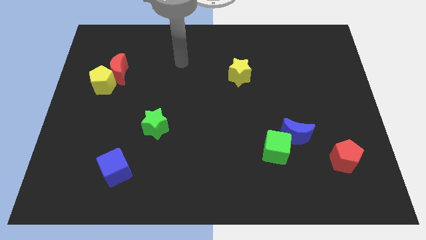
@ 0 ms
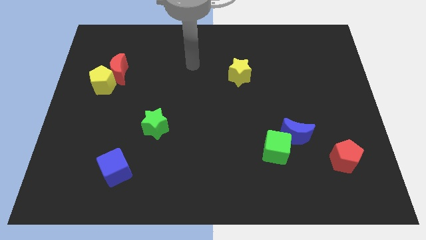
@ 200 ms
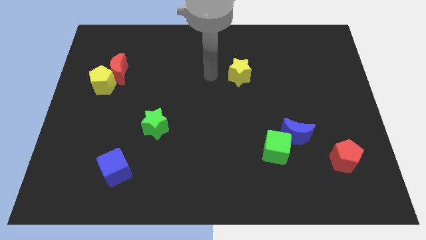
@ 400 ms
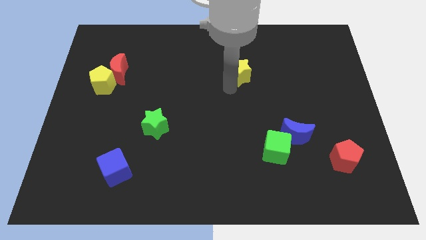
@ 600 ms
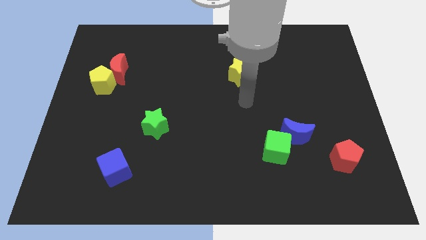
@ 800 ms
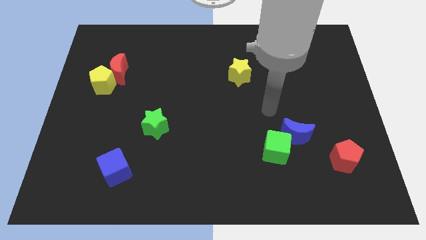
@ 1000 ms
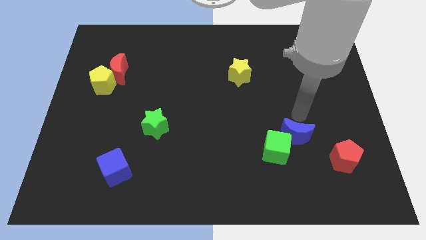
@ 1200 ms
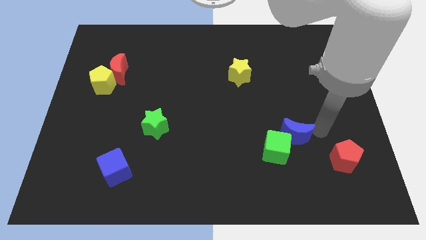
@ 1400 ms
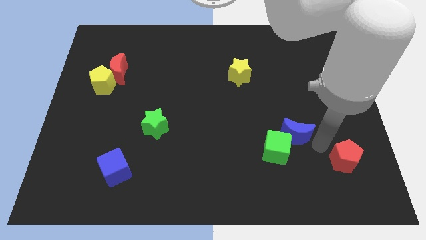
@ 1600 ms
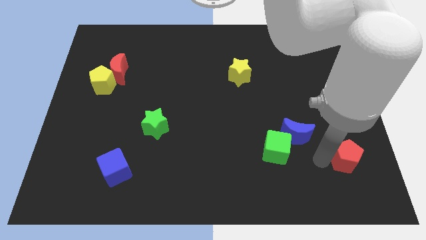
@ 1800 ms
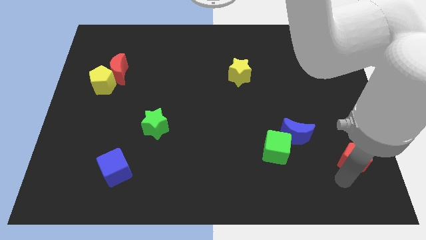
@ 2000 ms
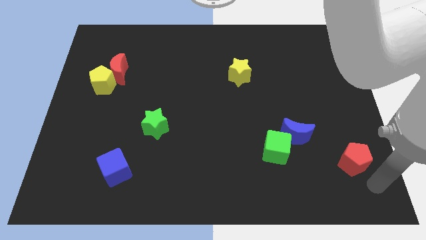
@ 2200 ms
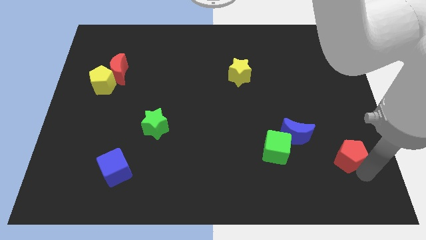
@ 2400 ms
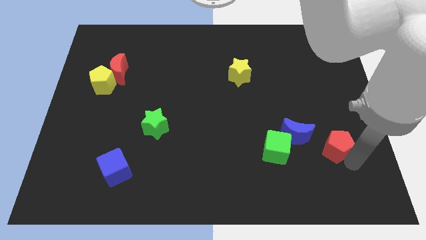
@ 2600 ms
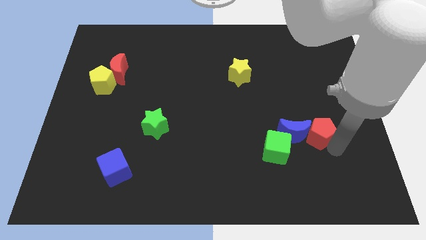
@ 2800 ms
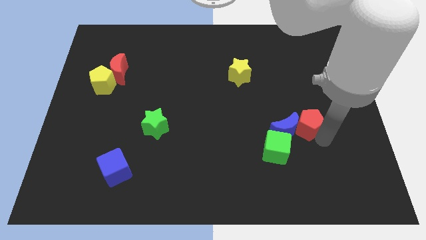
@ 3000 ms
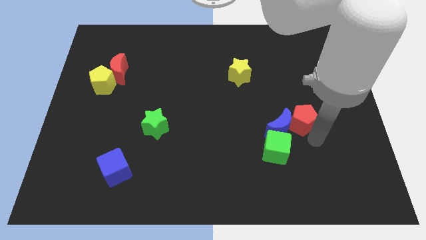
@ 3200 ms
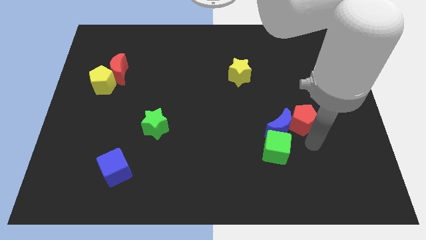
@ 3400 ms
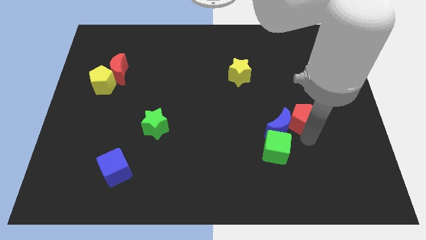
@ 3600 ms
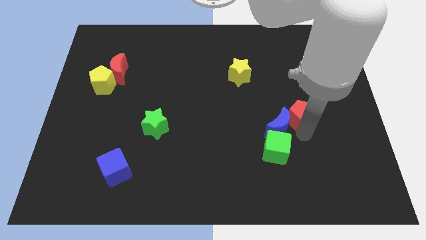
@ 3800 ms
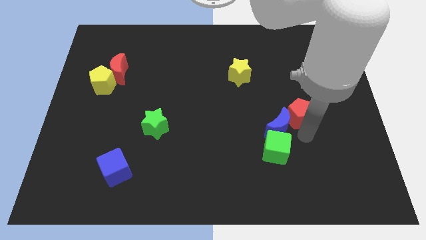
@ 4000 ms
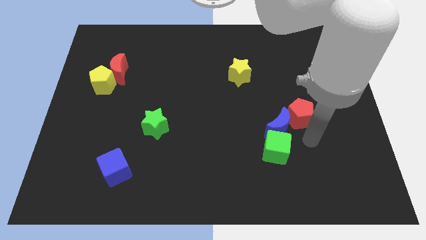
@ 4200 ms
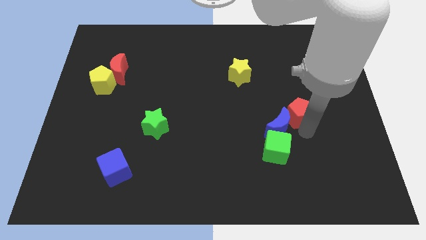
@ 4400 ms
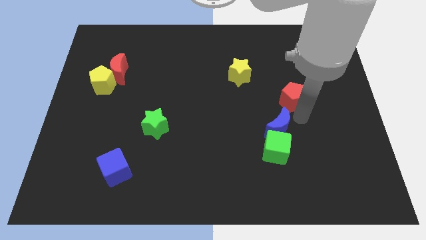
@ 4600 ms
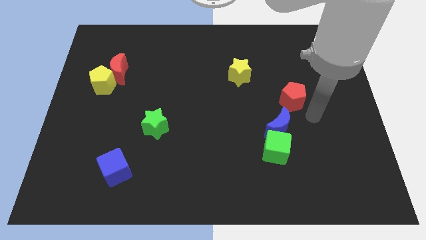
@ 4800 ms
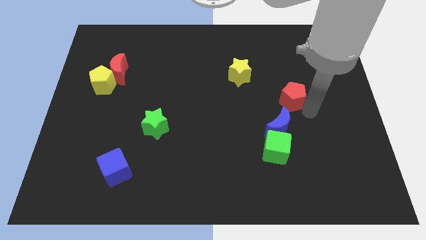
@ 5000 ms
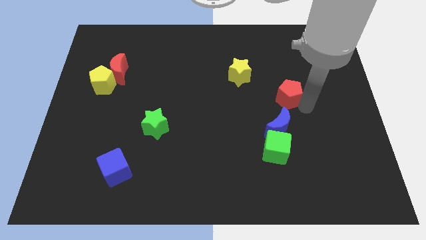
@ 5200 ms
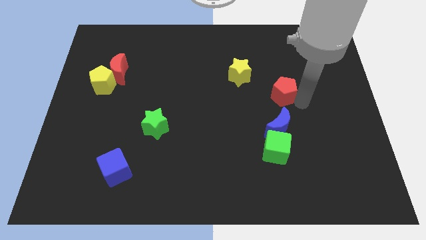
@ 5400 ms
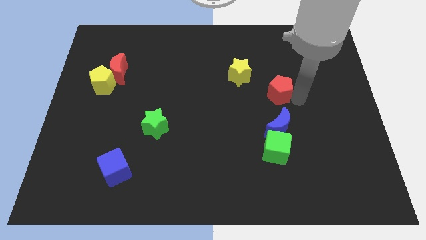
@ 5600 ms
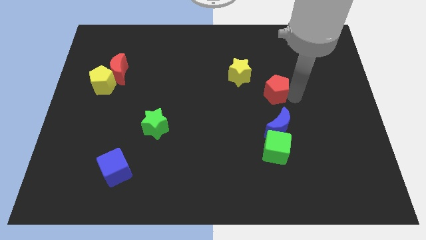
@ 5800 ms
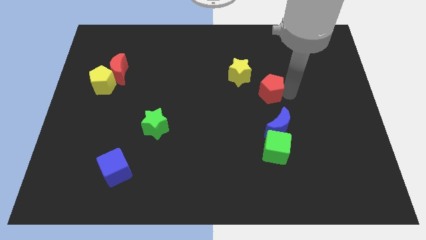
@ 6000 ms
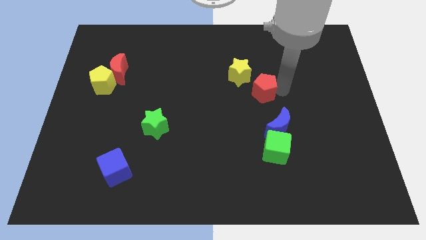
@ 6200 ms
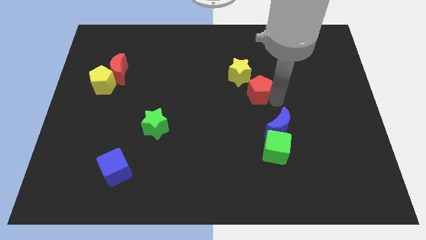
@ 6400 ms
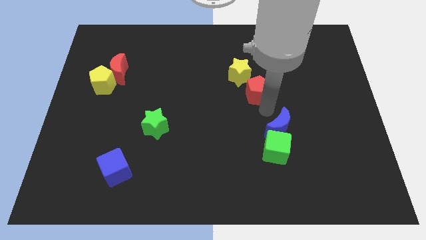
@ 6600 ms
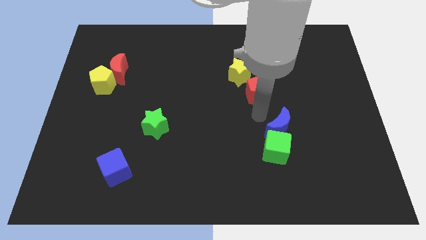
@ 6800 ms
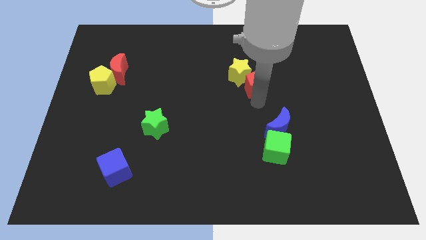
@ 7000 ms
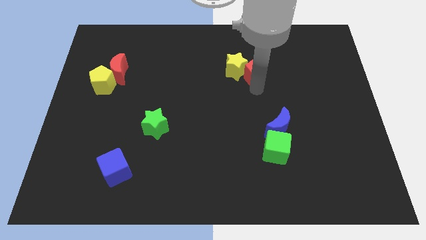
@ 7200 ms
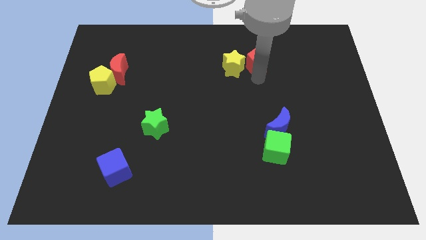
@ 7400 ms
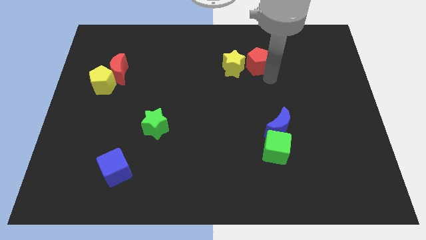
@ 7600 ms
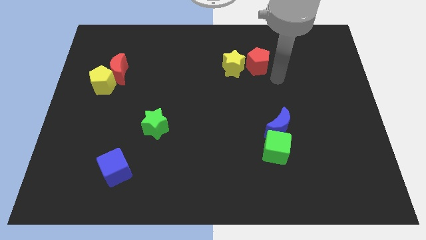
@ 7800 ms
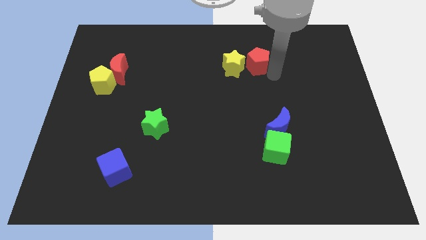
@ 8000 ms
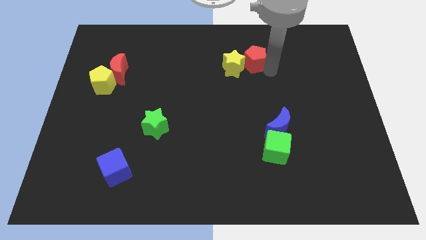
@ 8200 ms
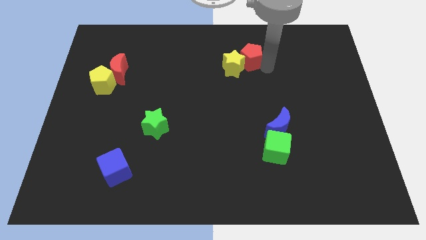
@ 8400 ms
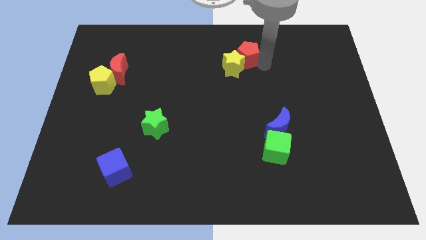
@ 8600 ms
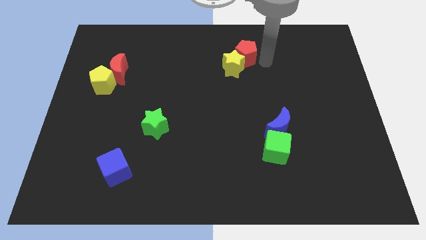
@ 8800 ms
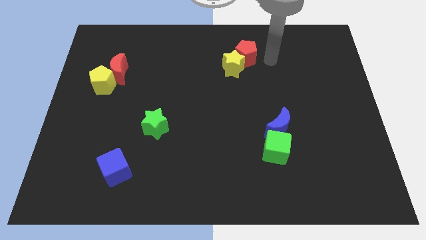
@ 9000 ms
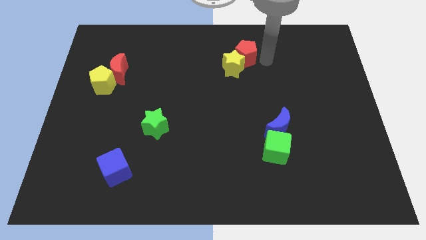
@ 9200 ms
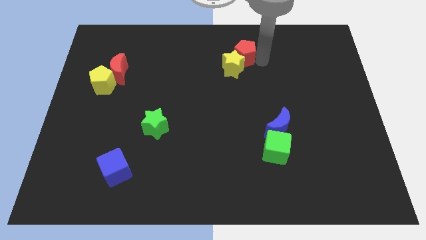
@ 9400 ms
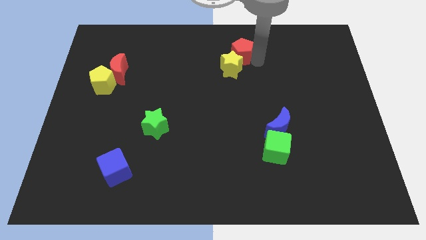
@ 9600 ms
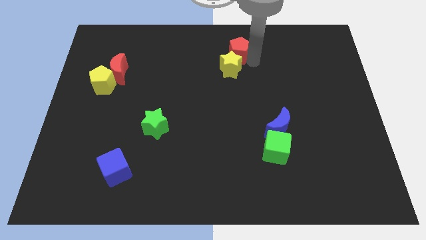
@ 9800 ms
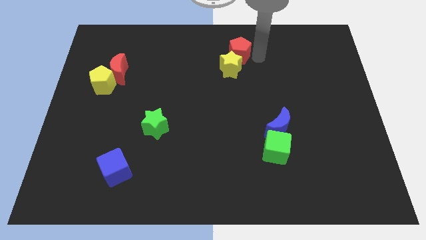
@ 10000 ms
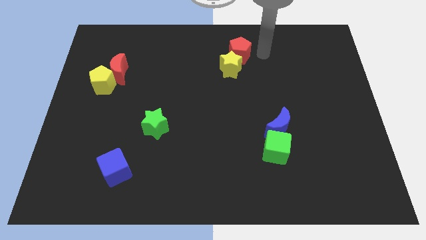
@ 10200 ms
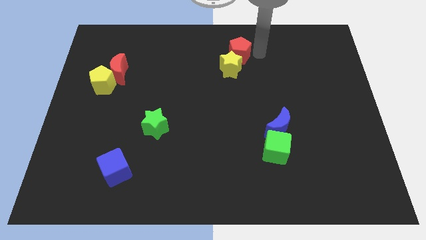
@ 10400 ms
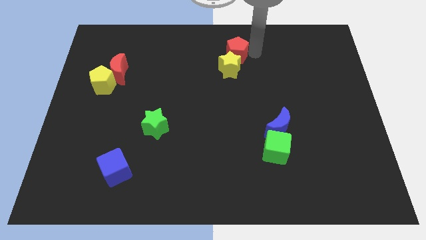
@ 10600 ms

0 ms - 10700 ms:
put the red pentagon to the towards your base
